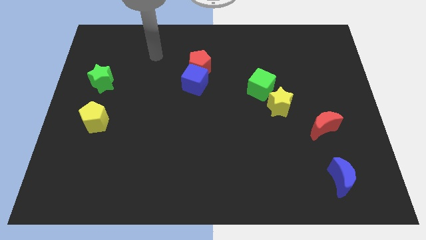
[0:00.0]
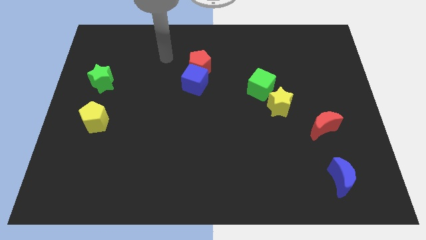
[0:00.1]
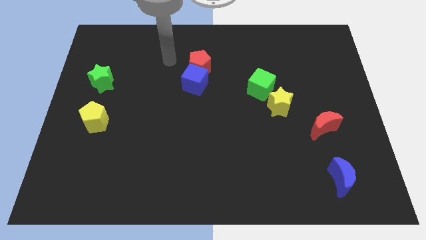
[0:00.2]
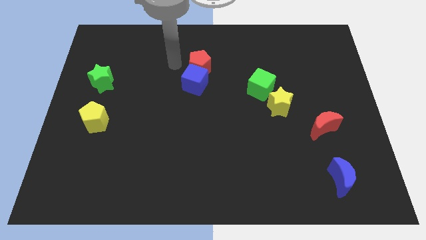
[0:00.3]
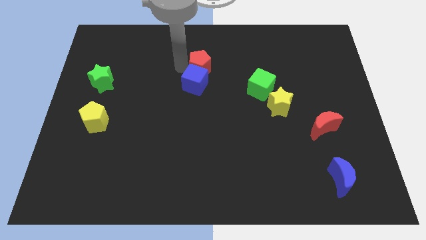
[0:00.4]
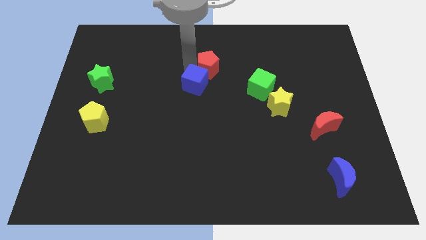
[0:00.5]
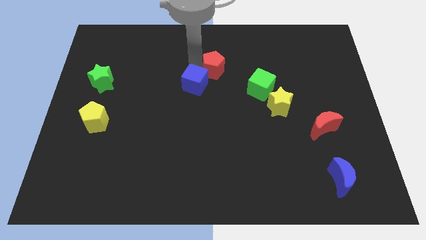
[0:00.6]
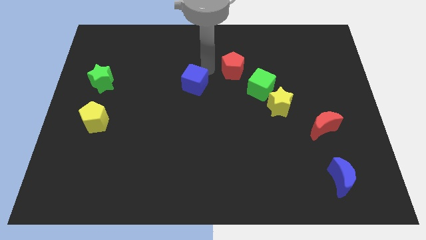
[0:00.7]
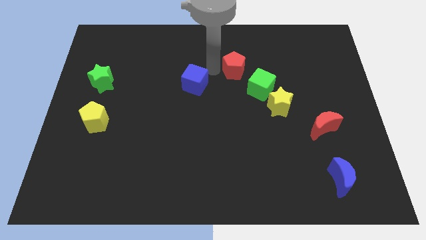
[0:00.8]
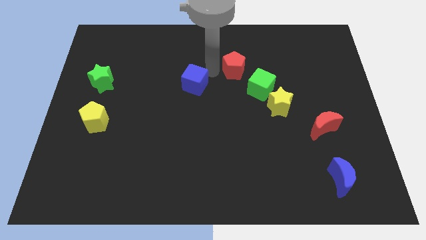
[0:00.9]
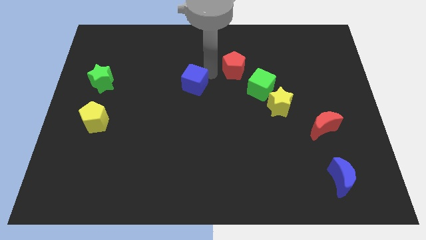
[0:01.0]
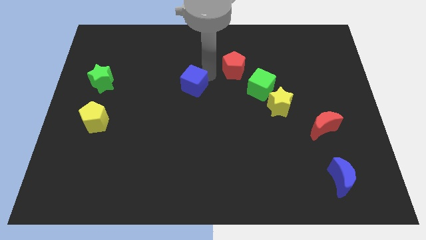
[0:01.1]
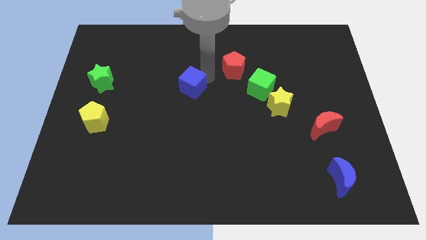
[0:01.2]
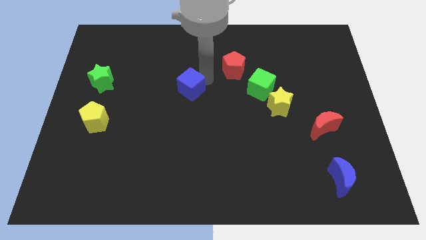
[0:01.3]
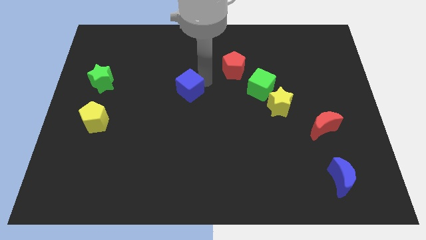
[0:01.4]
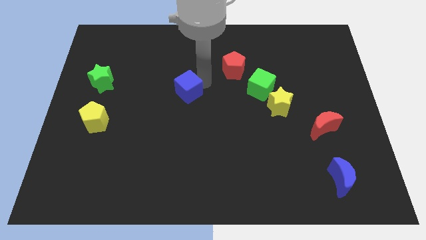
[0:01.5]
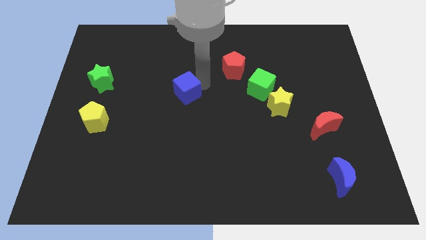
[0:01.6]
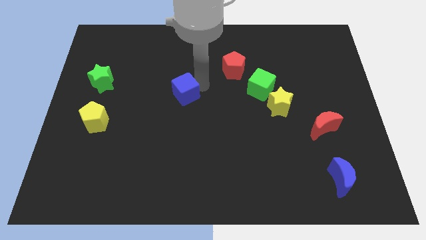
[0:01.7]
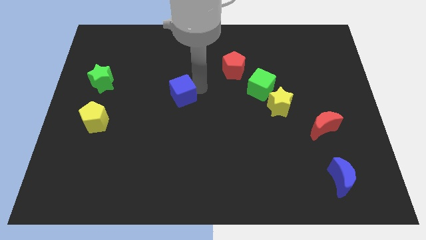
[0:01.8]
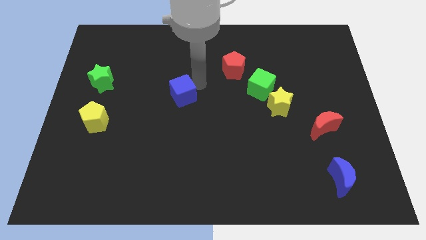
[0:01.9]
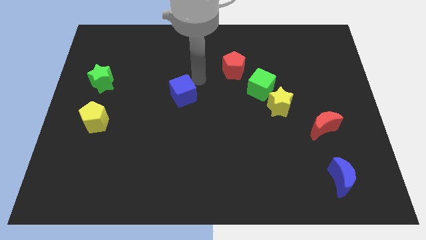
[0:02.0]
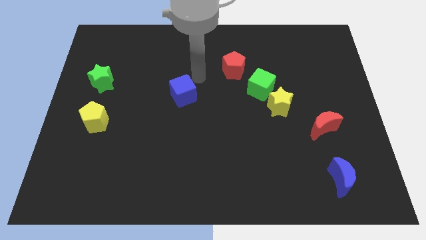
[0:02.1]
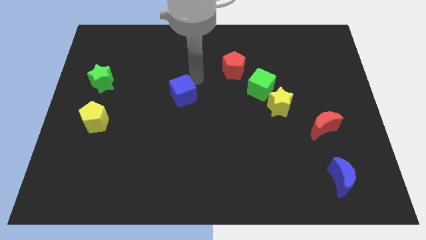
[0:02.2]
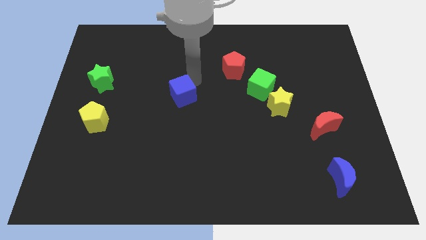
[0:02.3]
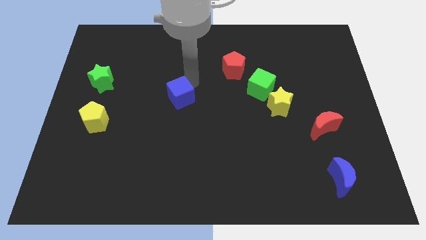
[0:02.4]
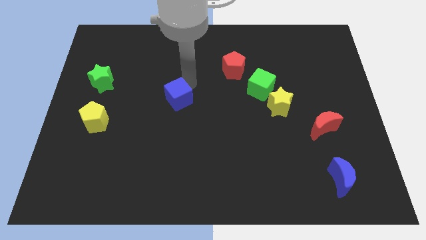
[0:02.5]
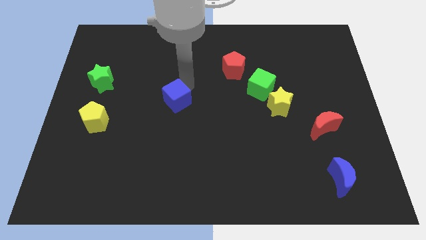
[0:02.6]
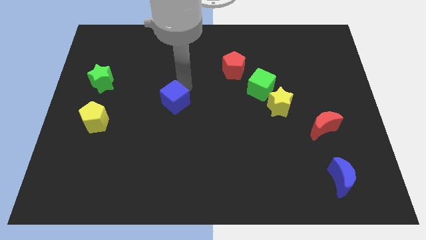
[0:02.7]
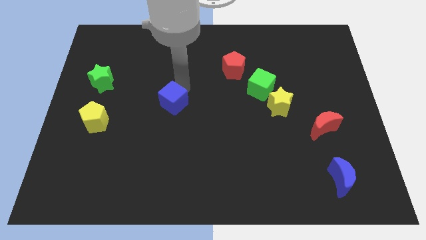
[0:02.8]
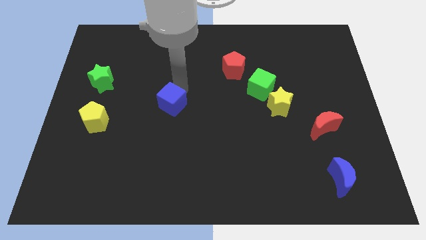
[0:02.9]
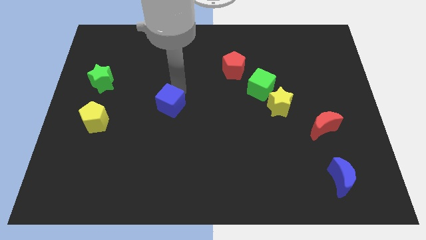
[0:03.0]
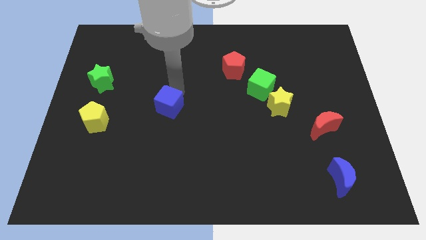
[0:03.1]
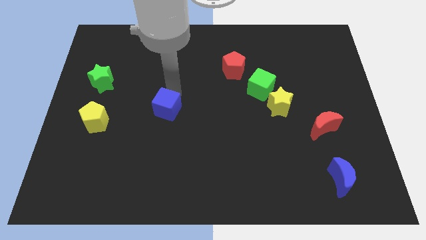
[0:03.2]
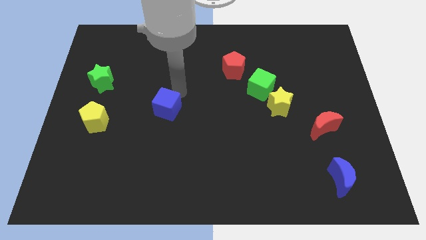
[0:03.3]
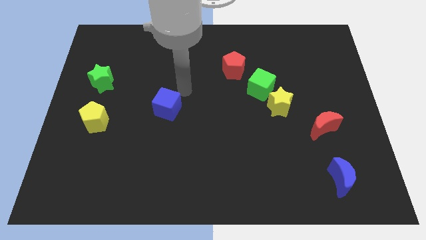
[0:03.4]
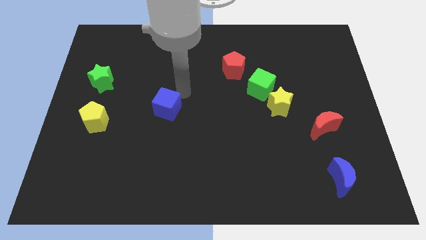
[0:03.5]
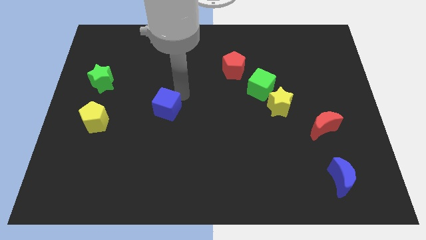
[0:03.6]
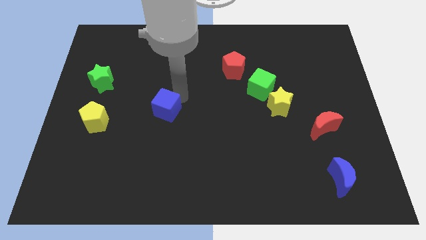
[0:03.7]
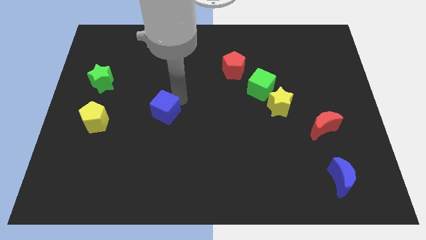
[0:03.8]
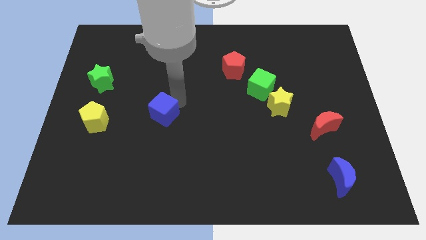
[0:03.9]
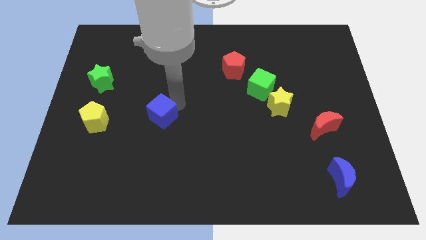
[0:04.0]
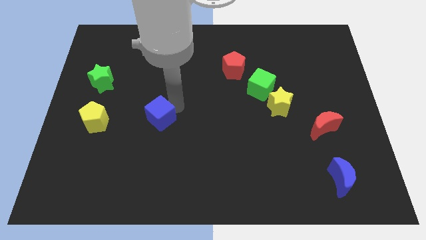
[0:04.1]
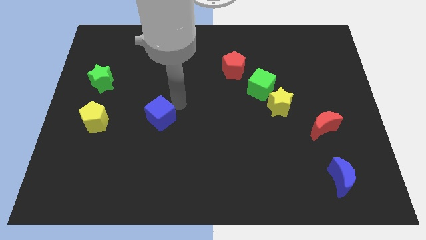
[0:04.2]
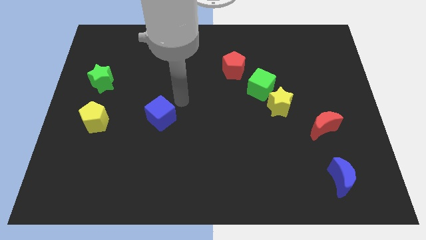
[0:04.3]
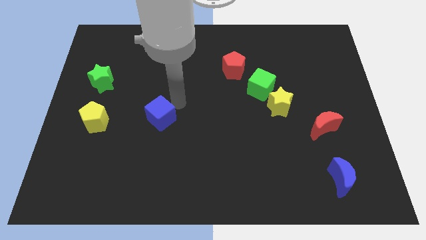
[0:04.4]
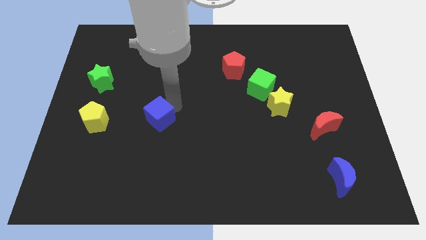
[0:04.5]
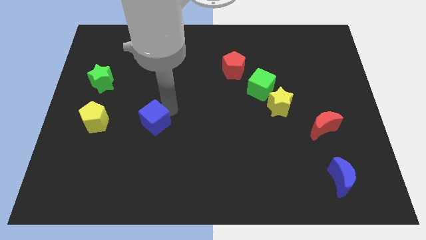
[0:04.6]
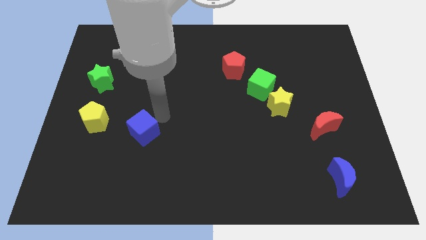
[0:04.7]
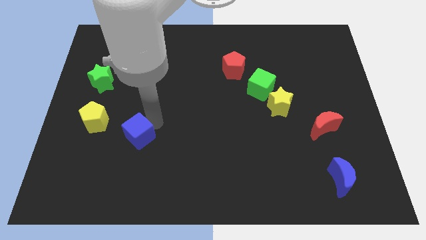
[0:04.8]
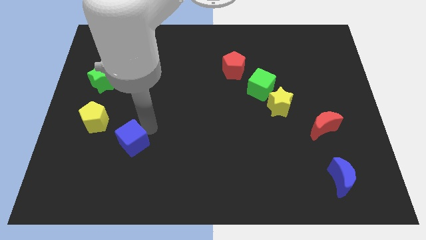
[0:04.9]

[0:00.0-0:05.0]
move the blue cube diagonally down and to the left

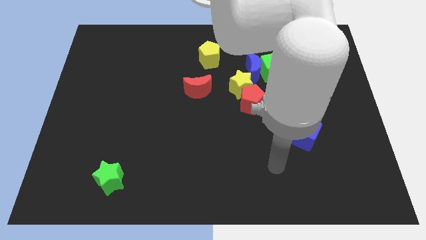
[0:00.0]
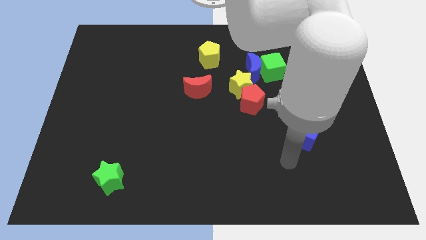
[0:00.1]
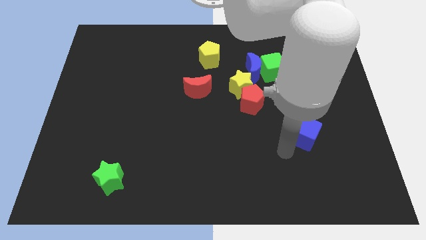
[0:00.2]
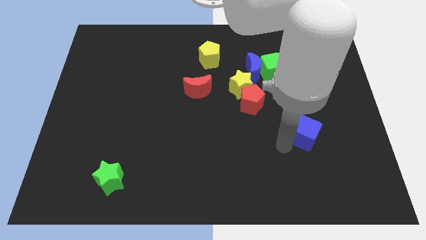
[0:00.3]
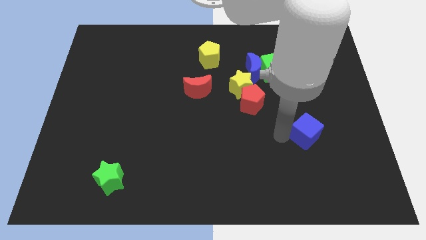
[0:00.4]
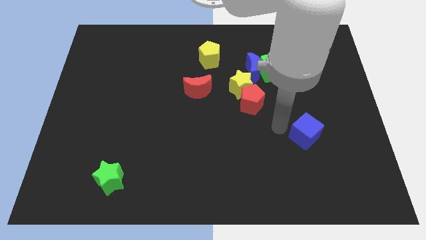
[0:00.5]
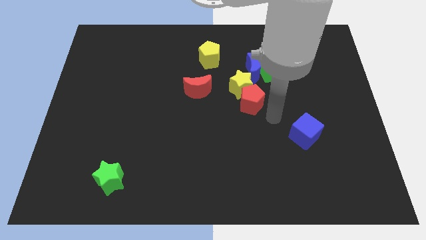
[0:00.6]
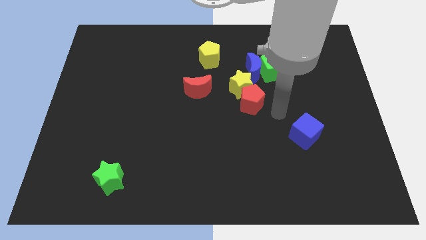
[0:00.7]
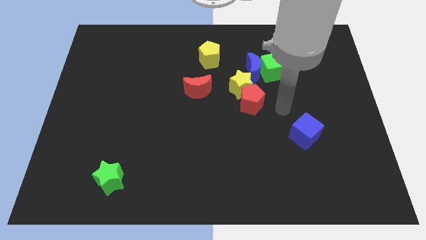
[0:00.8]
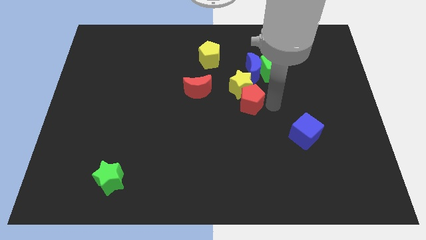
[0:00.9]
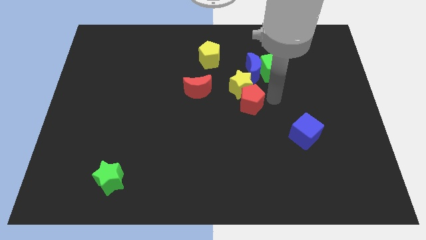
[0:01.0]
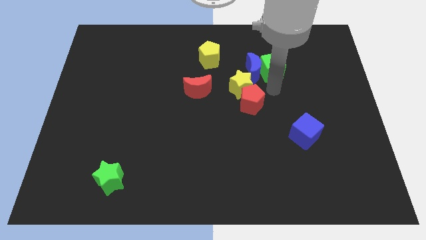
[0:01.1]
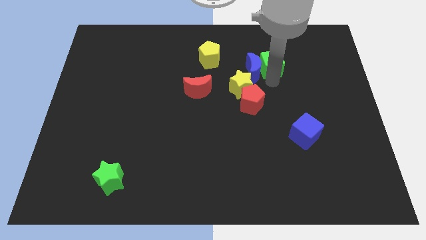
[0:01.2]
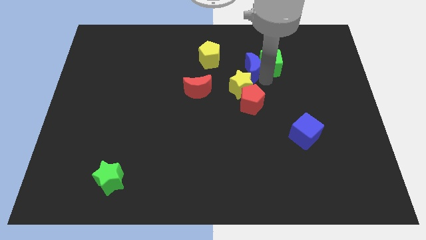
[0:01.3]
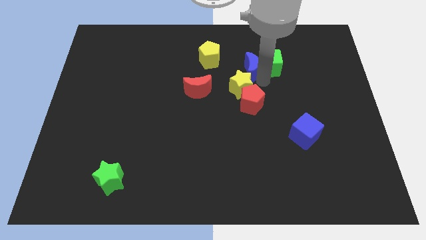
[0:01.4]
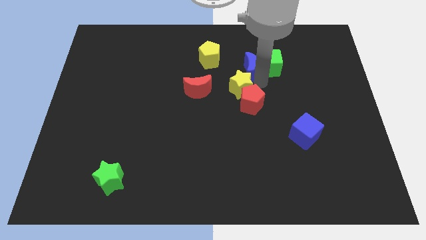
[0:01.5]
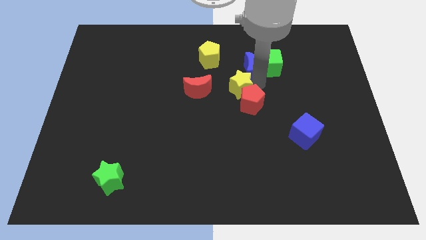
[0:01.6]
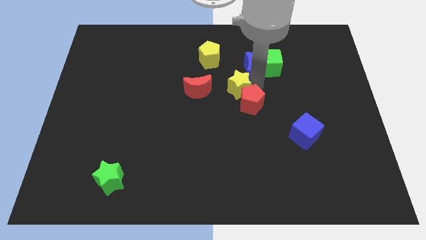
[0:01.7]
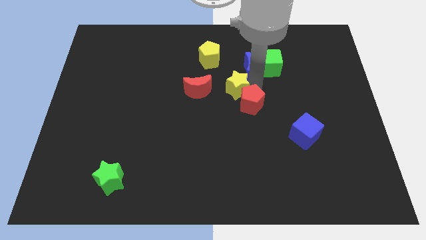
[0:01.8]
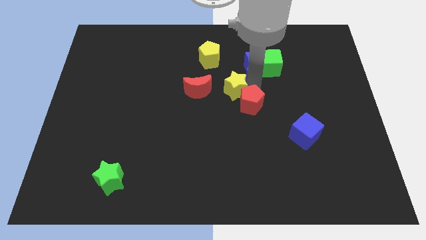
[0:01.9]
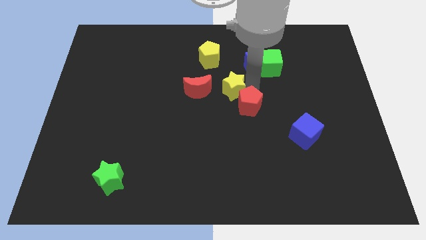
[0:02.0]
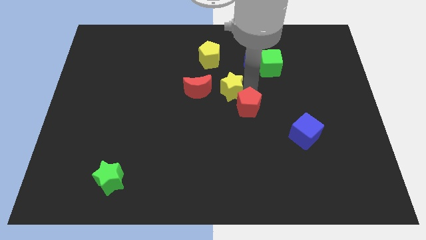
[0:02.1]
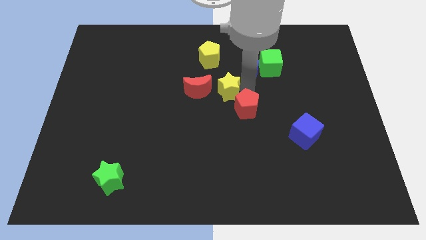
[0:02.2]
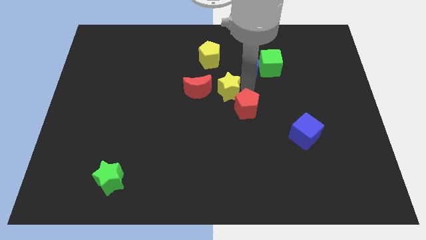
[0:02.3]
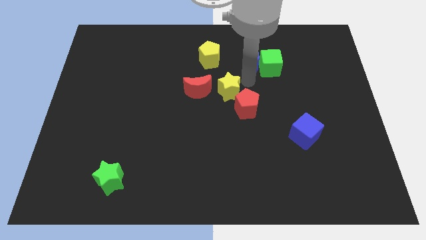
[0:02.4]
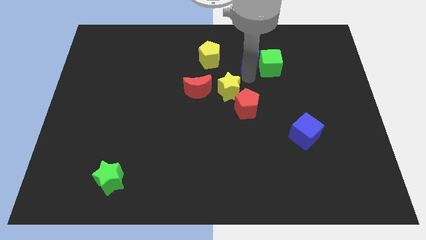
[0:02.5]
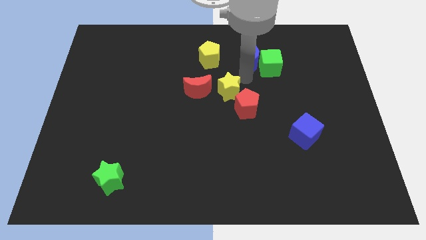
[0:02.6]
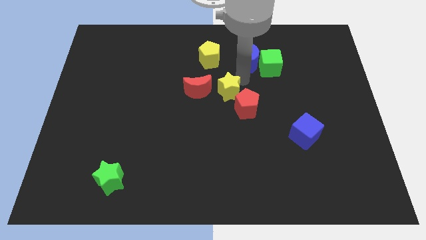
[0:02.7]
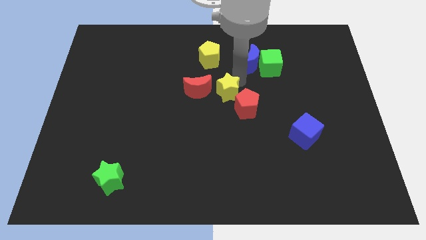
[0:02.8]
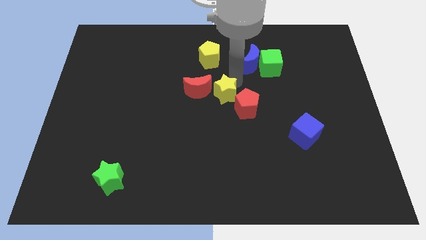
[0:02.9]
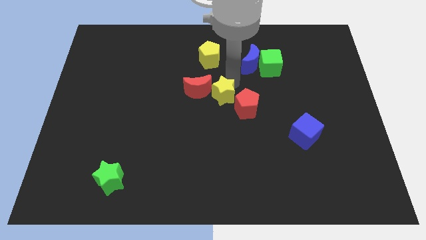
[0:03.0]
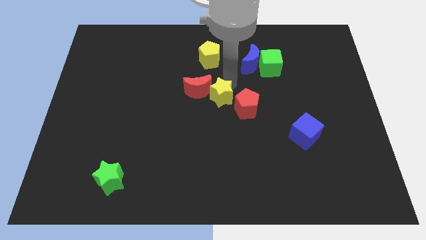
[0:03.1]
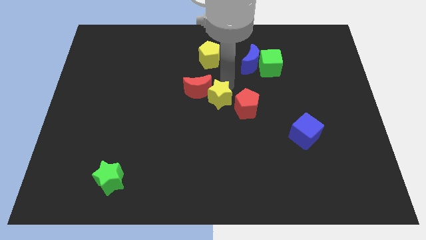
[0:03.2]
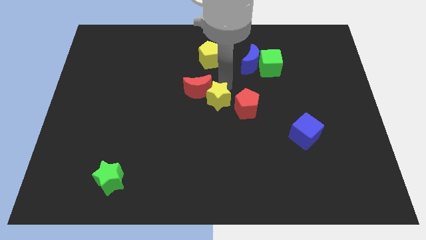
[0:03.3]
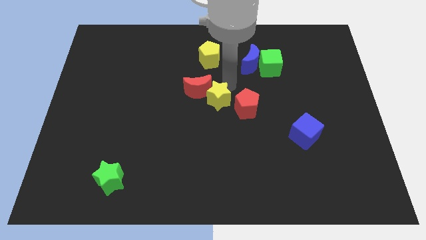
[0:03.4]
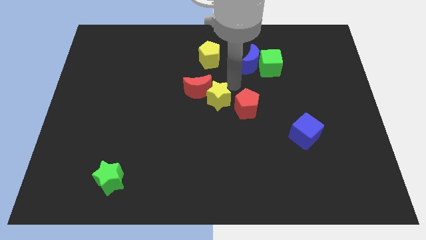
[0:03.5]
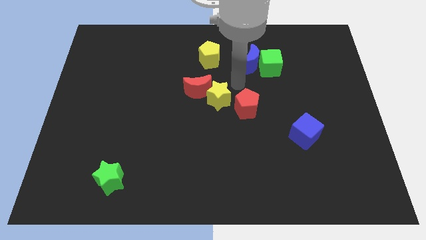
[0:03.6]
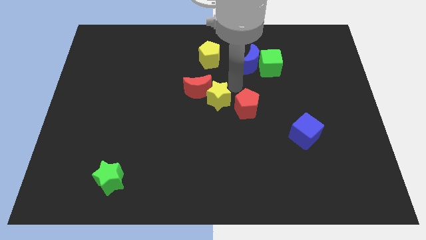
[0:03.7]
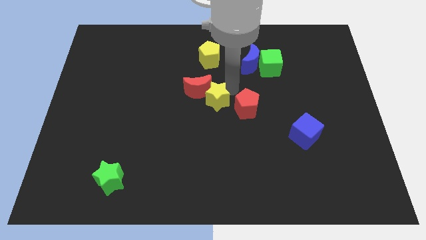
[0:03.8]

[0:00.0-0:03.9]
slide the yellow star downwards and then to the left slightly
